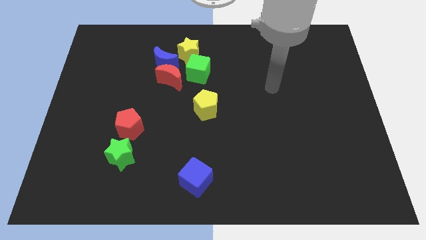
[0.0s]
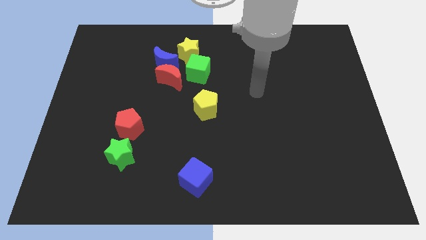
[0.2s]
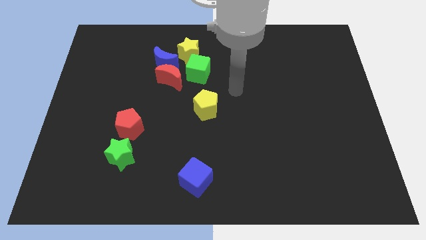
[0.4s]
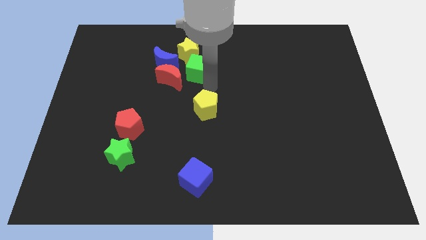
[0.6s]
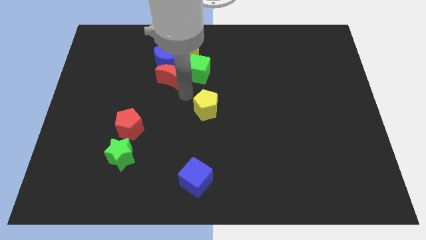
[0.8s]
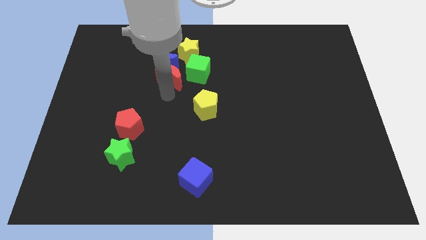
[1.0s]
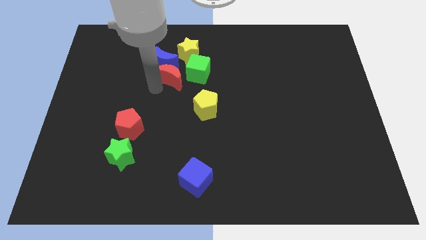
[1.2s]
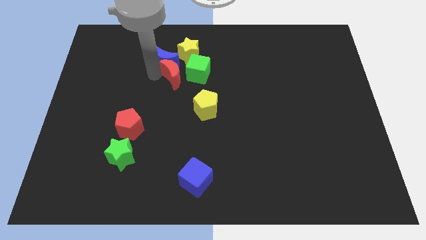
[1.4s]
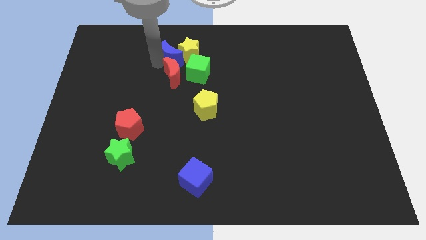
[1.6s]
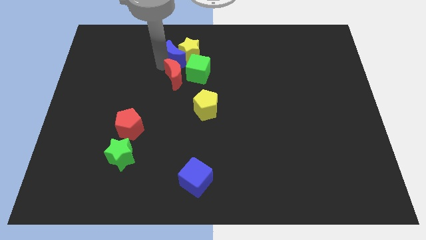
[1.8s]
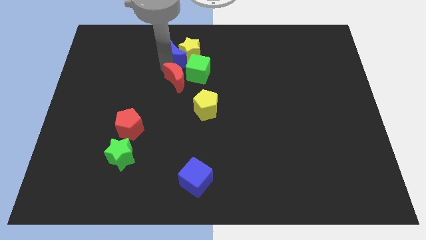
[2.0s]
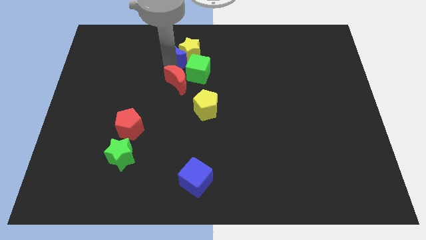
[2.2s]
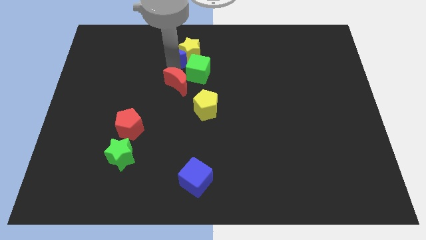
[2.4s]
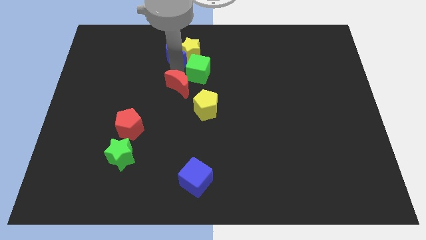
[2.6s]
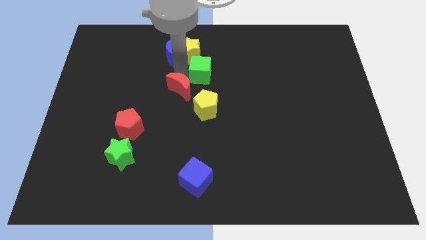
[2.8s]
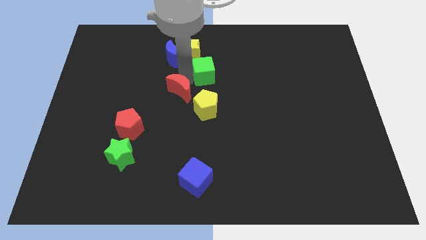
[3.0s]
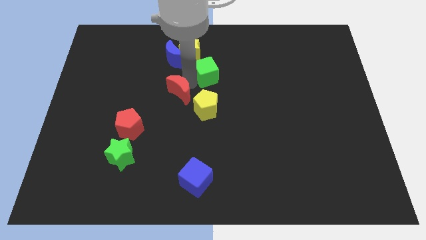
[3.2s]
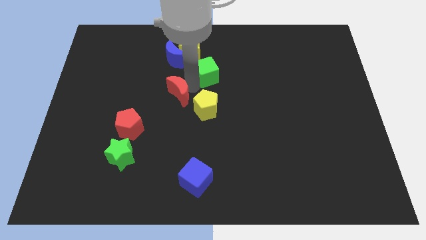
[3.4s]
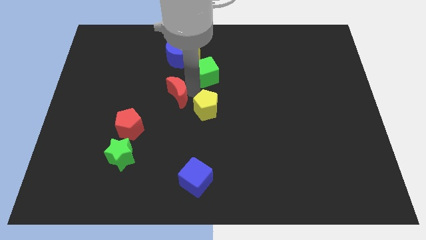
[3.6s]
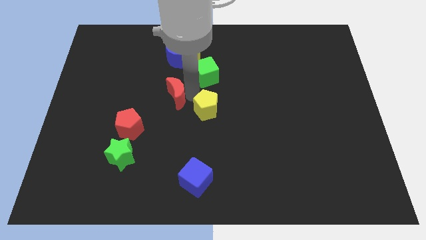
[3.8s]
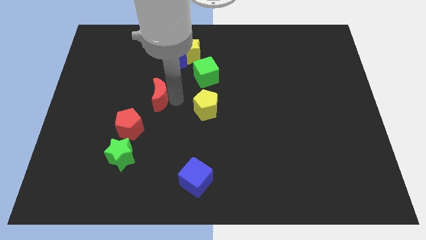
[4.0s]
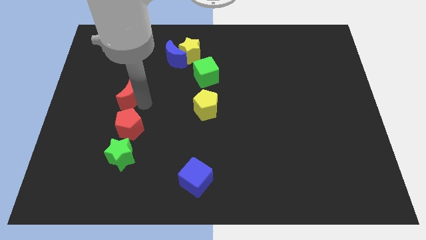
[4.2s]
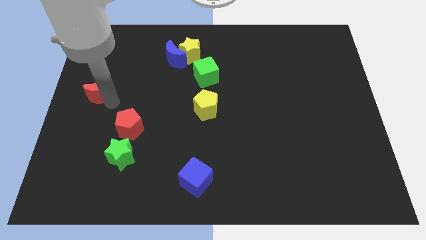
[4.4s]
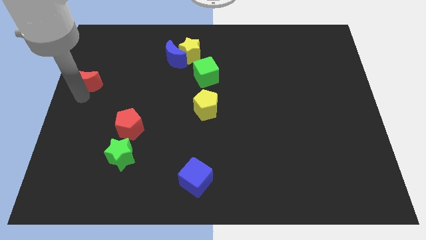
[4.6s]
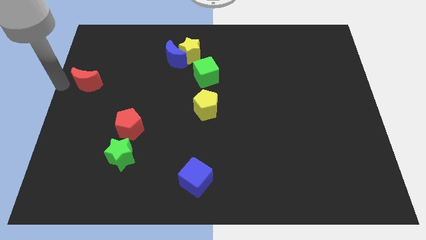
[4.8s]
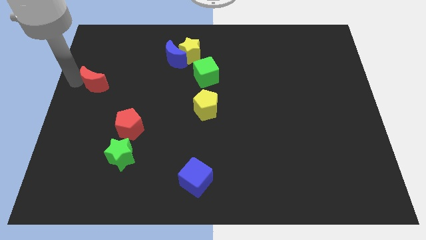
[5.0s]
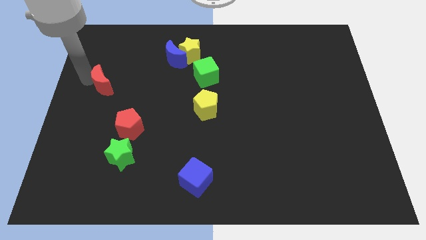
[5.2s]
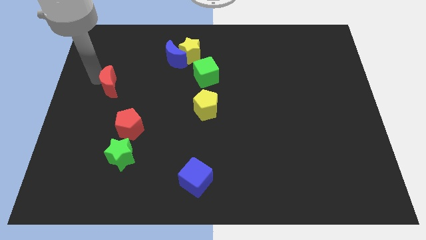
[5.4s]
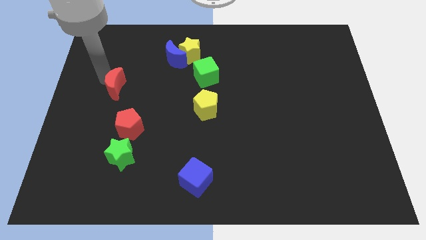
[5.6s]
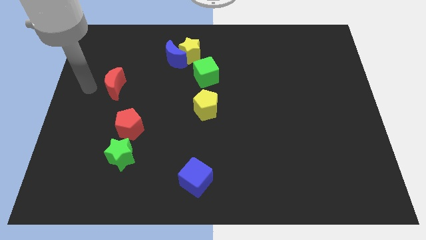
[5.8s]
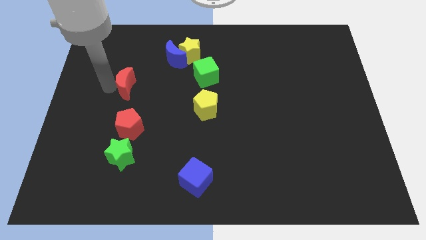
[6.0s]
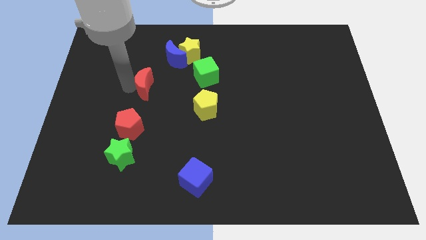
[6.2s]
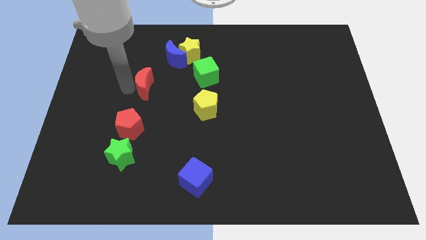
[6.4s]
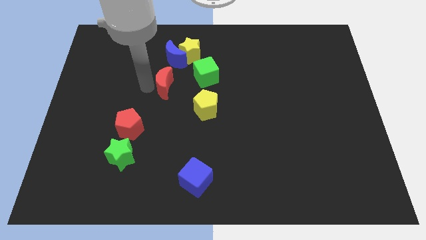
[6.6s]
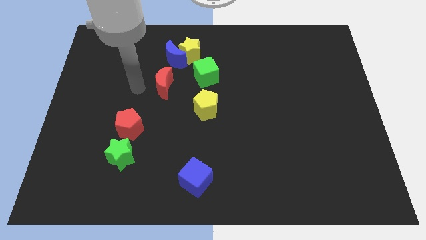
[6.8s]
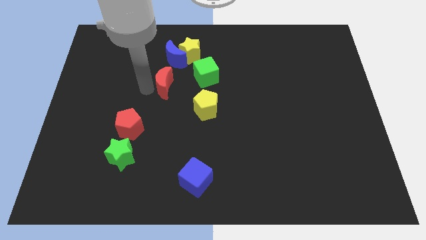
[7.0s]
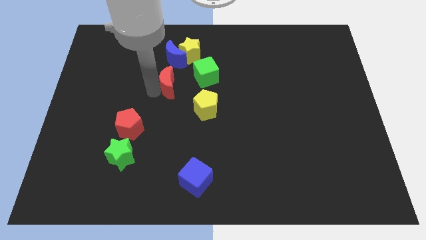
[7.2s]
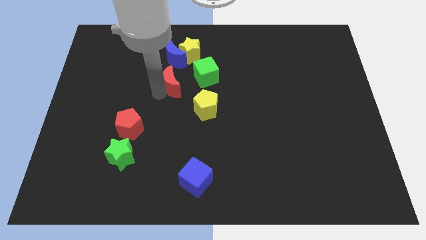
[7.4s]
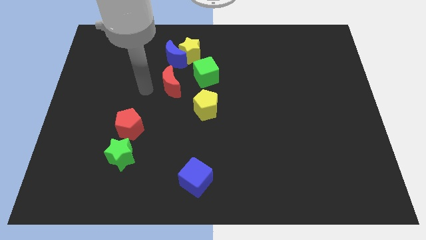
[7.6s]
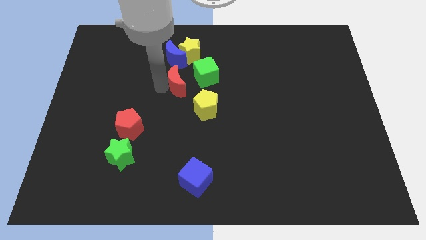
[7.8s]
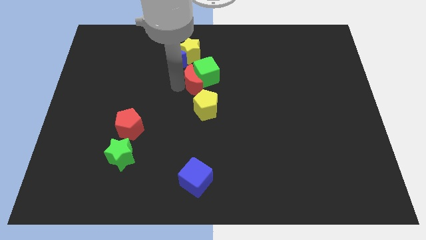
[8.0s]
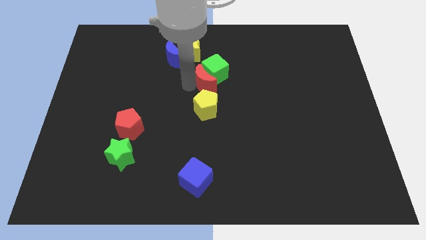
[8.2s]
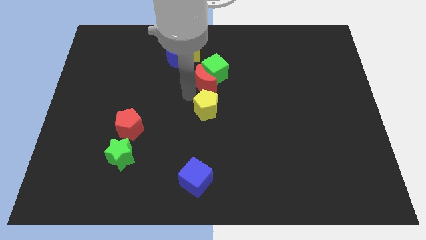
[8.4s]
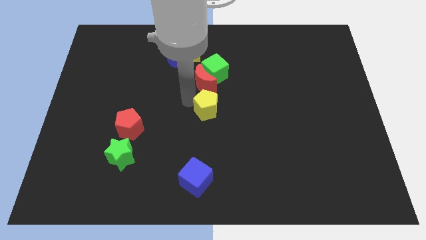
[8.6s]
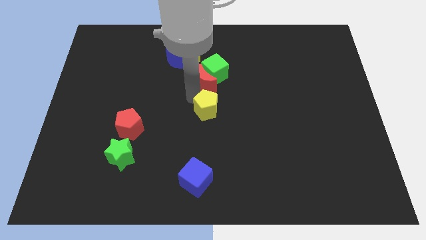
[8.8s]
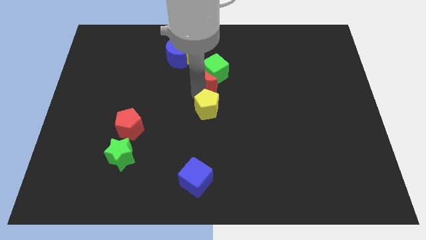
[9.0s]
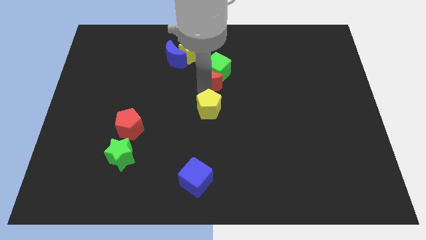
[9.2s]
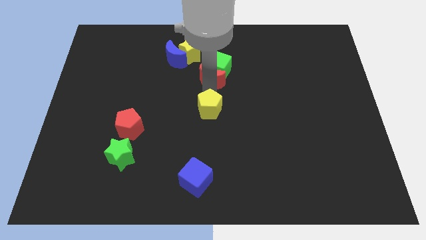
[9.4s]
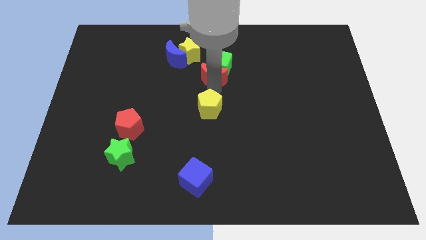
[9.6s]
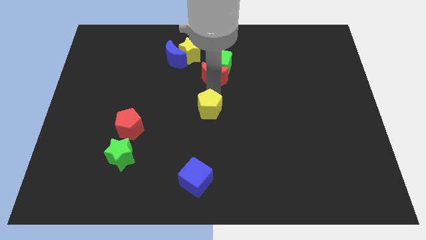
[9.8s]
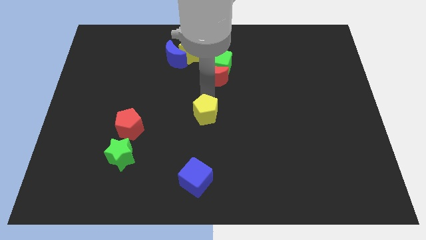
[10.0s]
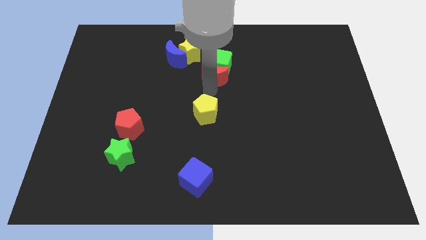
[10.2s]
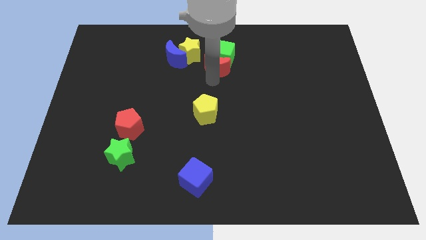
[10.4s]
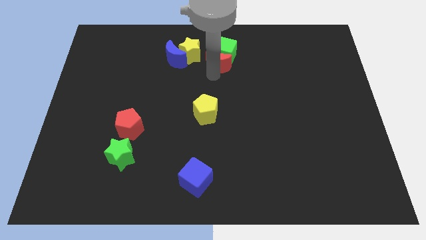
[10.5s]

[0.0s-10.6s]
slide the red moon just right of the yellow star
